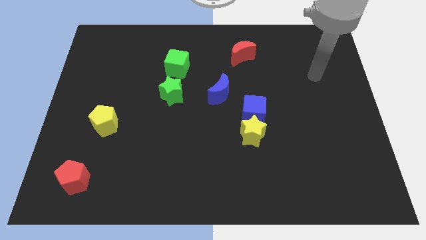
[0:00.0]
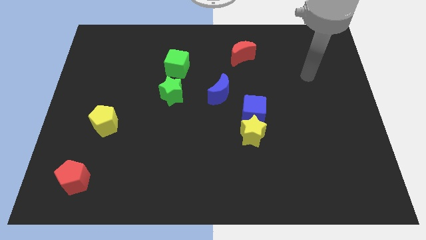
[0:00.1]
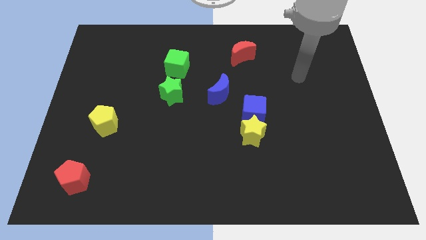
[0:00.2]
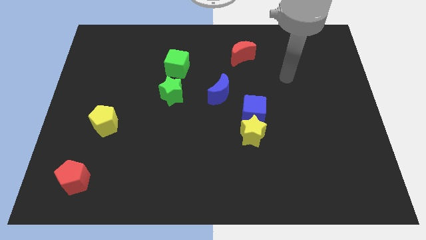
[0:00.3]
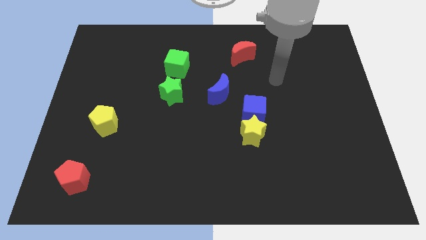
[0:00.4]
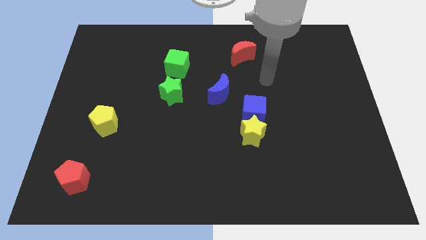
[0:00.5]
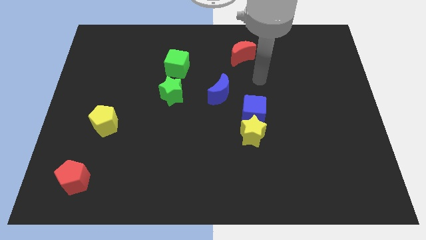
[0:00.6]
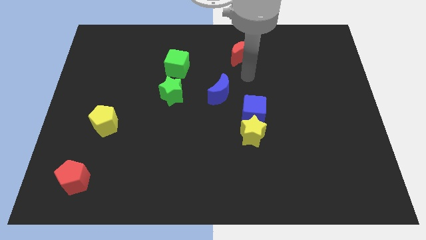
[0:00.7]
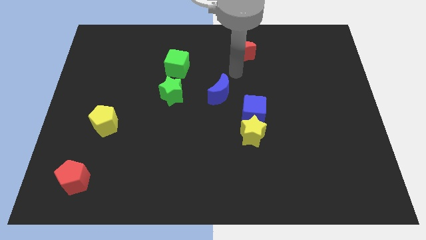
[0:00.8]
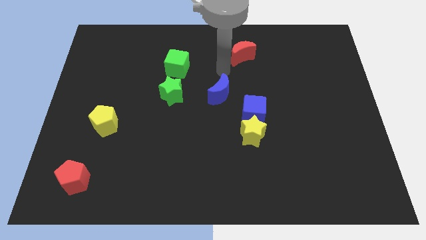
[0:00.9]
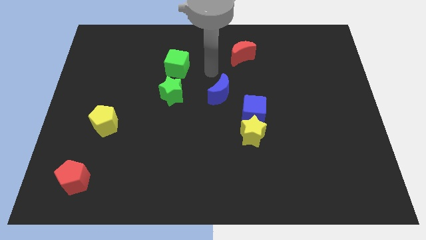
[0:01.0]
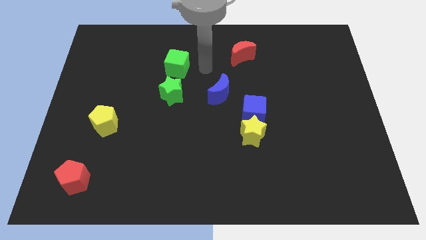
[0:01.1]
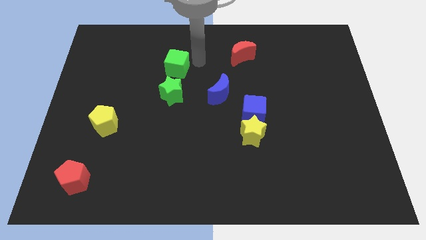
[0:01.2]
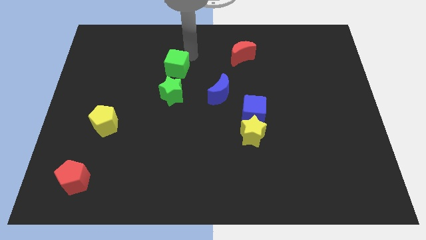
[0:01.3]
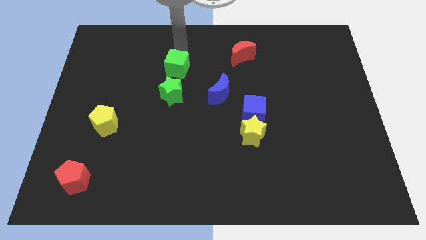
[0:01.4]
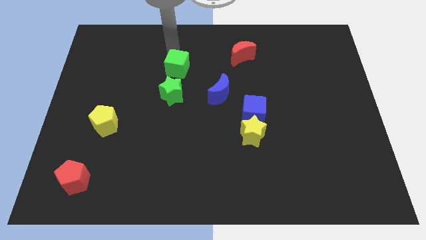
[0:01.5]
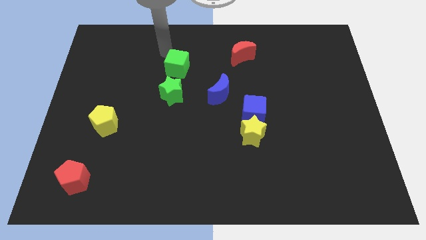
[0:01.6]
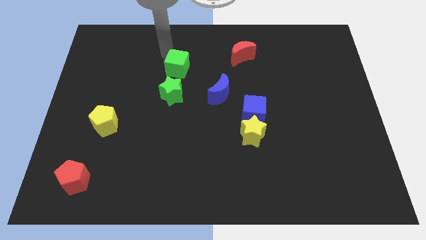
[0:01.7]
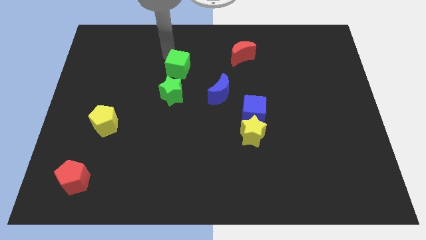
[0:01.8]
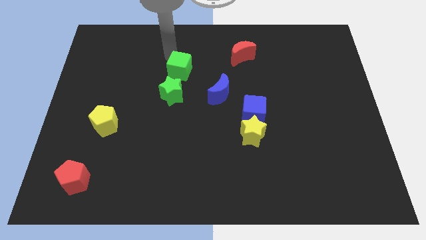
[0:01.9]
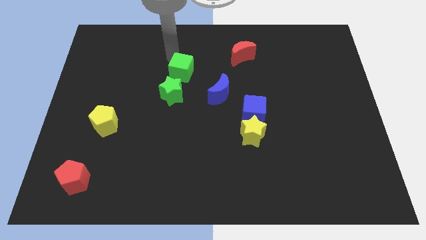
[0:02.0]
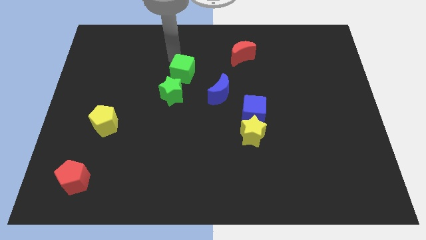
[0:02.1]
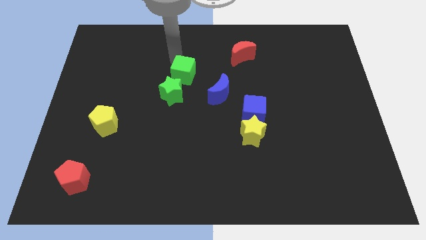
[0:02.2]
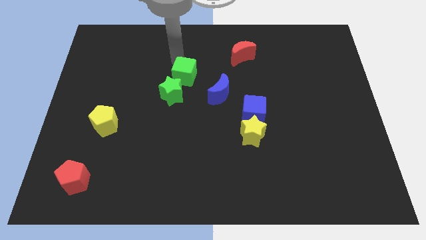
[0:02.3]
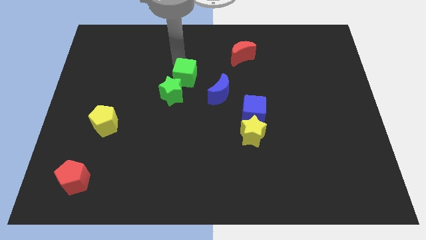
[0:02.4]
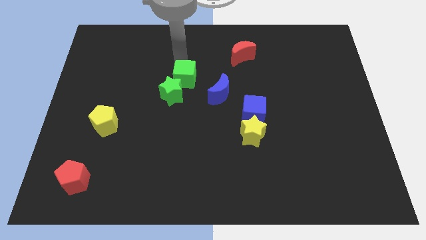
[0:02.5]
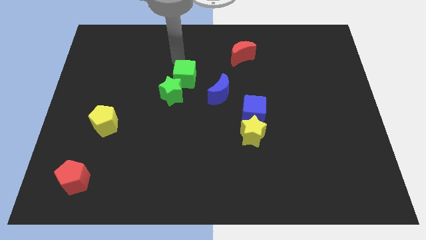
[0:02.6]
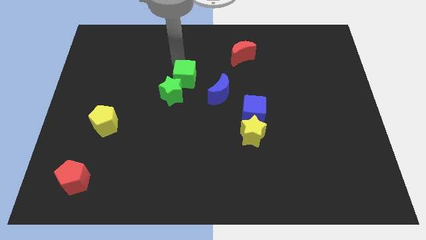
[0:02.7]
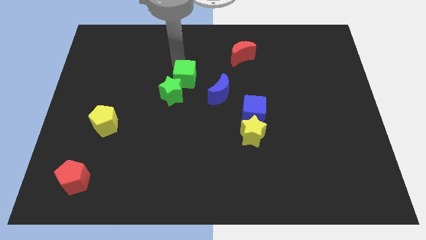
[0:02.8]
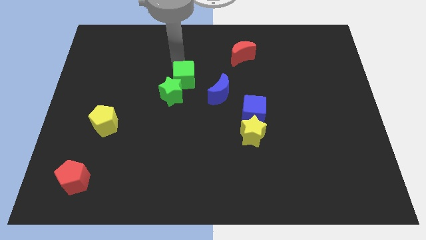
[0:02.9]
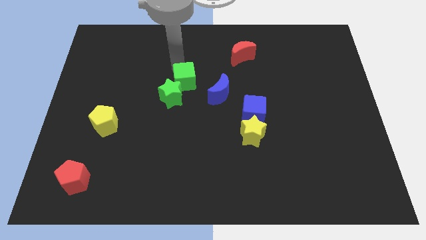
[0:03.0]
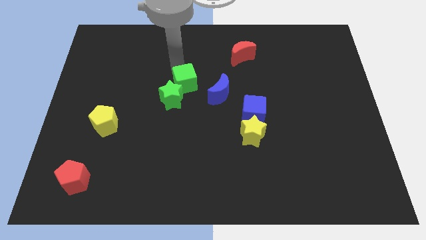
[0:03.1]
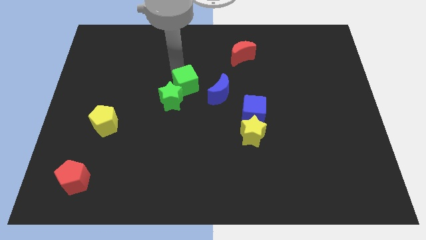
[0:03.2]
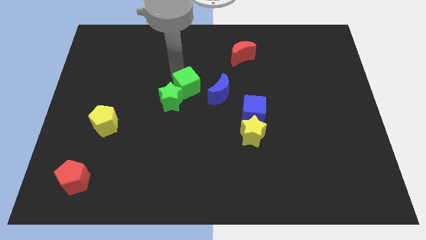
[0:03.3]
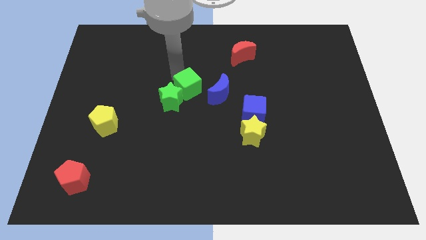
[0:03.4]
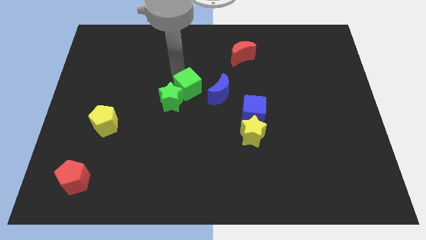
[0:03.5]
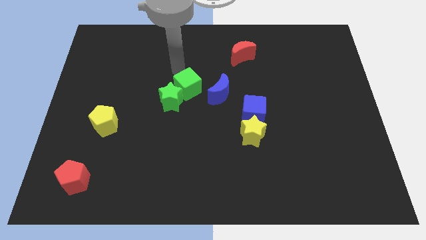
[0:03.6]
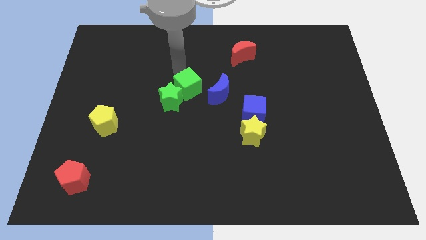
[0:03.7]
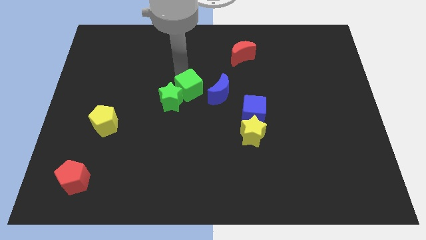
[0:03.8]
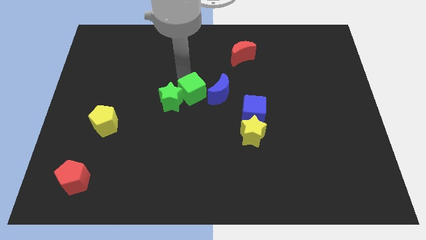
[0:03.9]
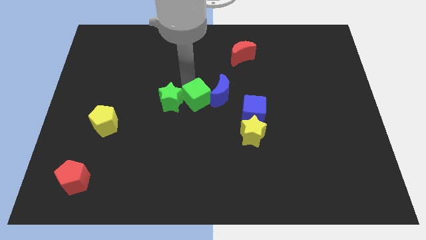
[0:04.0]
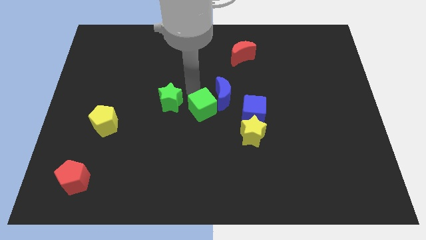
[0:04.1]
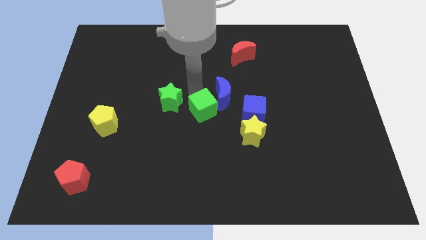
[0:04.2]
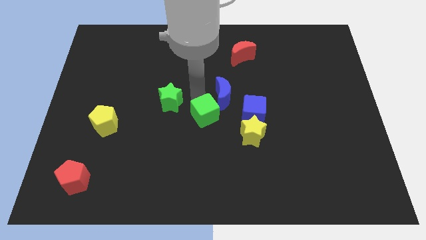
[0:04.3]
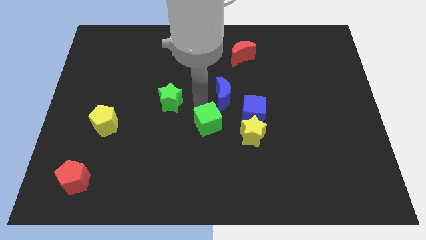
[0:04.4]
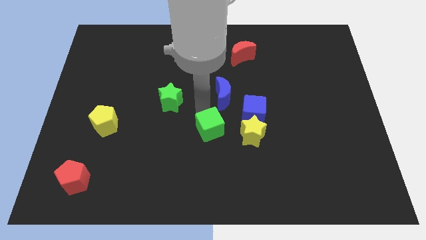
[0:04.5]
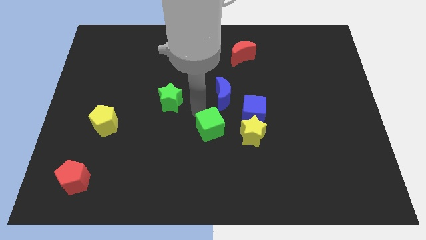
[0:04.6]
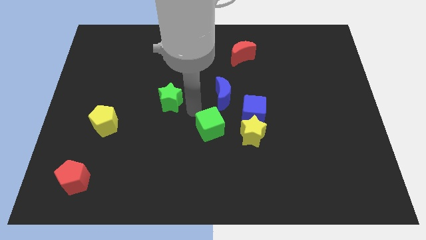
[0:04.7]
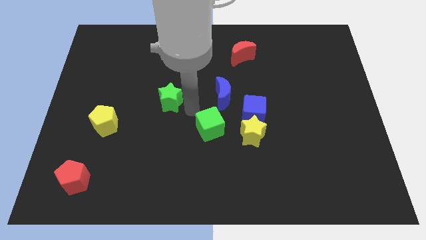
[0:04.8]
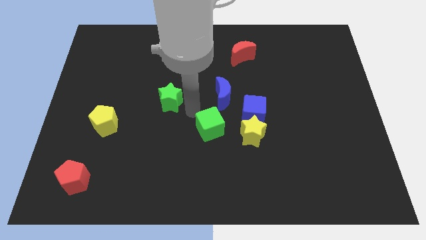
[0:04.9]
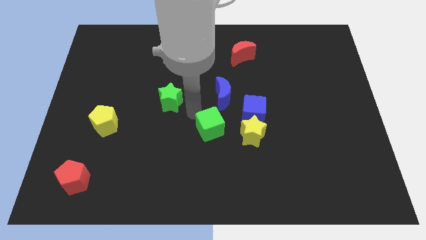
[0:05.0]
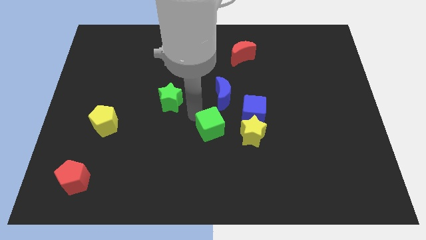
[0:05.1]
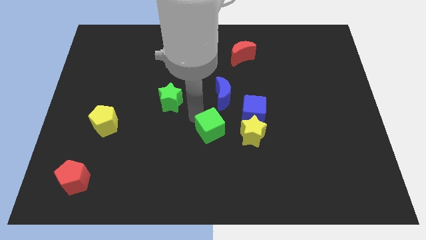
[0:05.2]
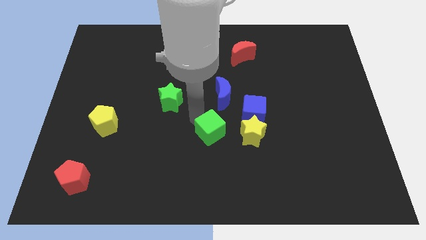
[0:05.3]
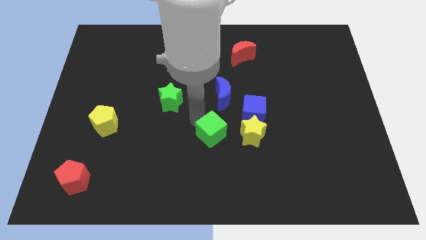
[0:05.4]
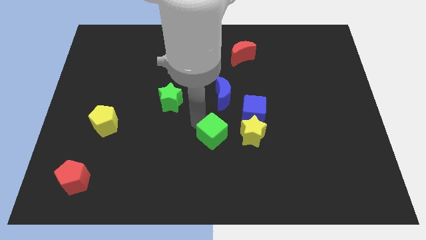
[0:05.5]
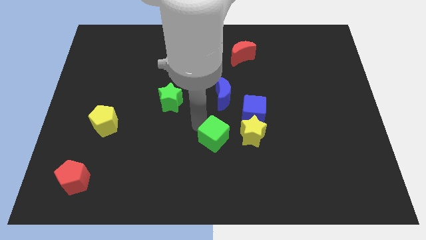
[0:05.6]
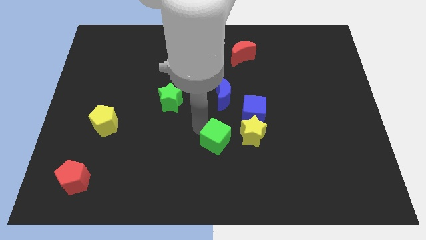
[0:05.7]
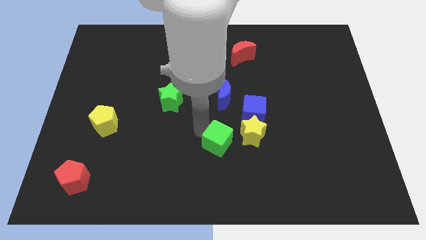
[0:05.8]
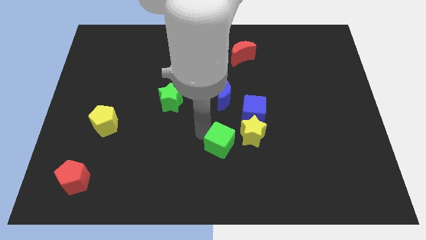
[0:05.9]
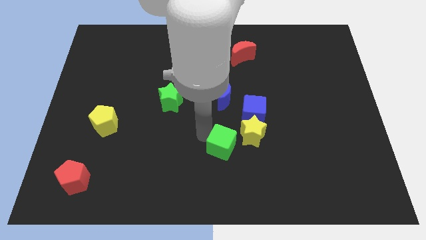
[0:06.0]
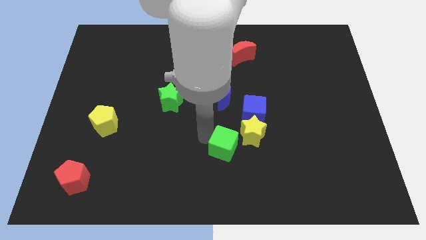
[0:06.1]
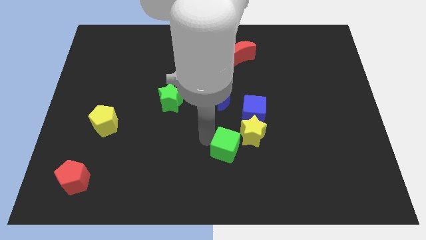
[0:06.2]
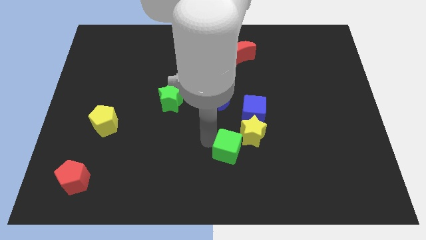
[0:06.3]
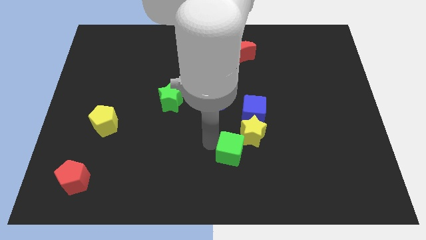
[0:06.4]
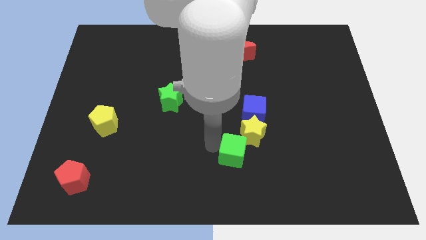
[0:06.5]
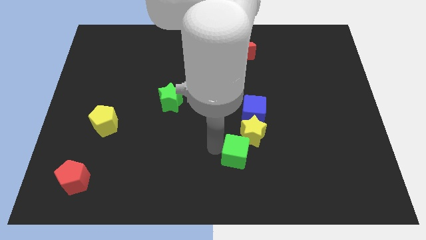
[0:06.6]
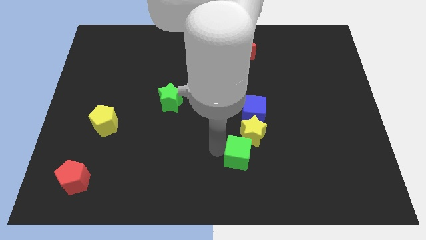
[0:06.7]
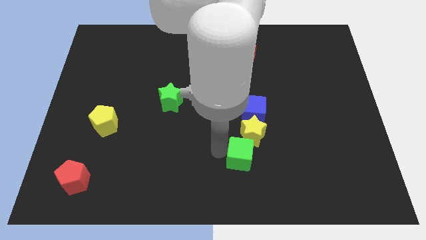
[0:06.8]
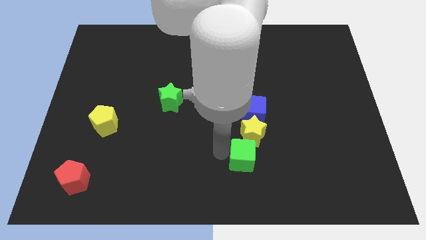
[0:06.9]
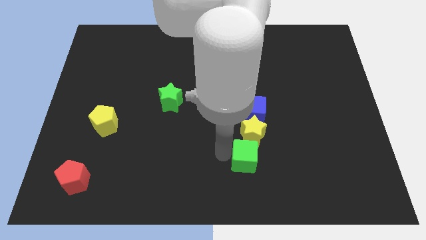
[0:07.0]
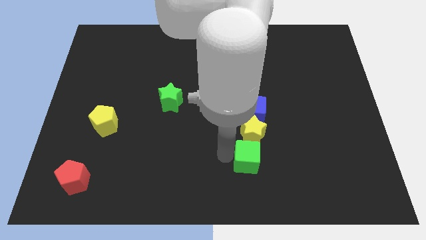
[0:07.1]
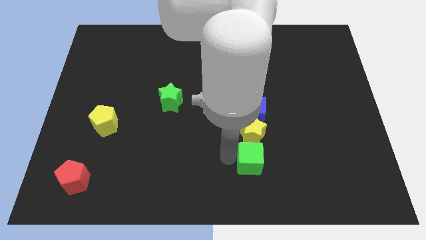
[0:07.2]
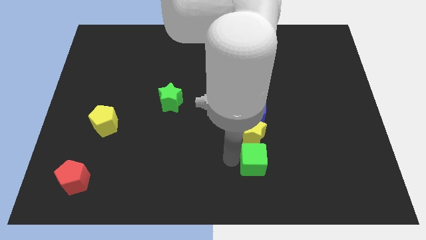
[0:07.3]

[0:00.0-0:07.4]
slide the green cube to the bottom right of the yellow star

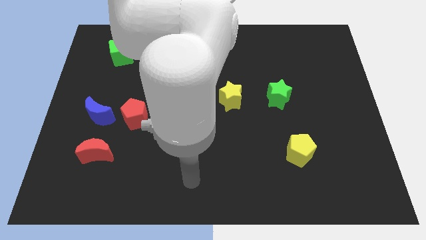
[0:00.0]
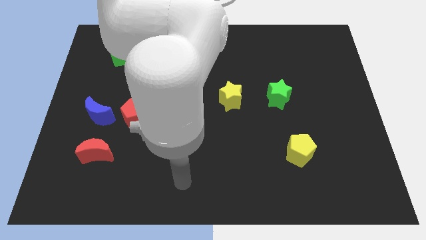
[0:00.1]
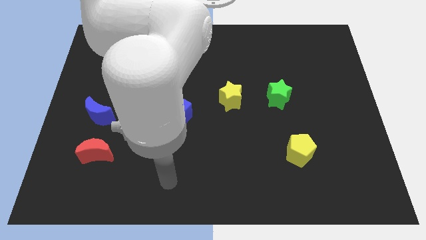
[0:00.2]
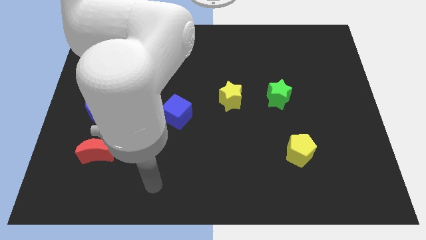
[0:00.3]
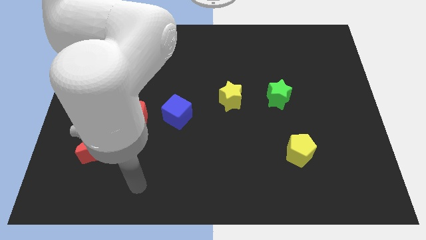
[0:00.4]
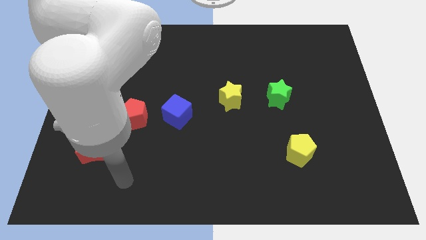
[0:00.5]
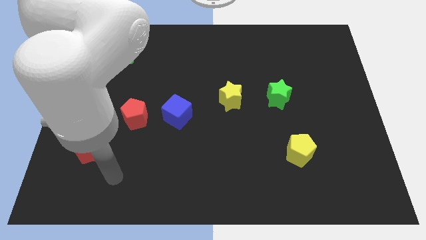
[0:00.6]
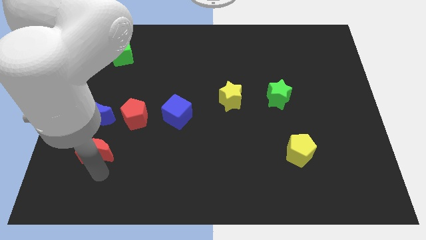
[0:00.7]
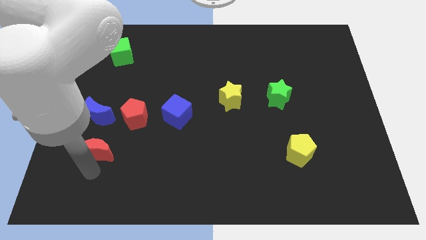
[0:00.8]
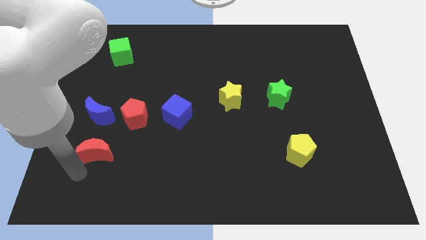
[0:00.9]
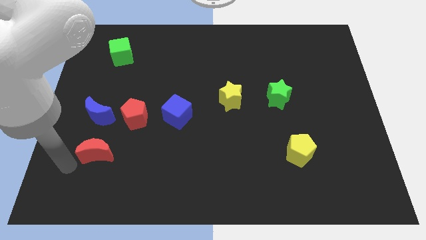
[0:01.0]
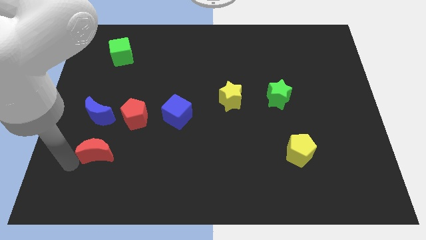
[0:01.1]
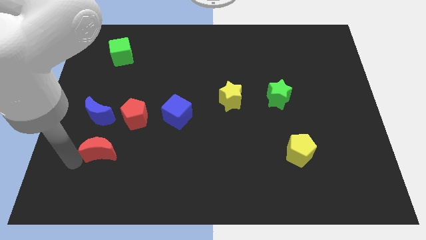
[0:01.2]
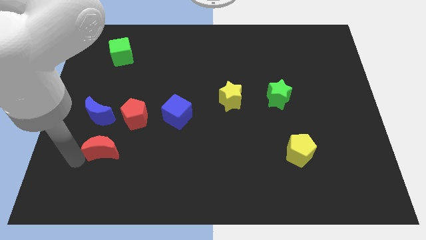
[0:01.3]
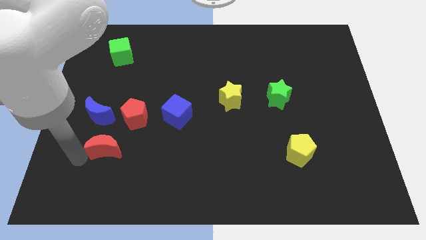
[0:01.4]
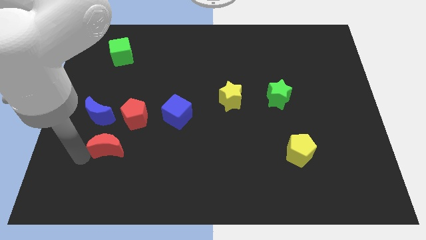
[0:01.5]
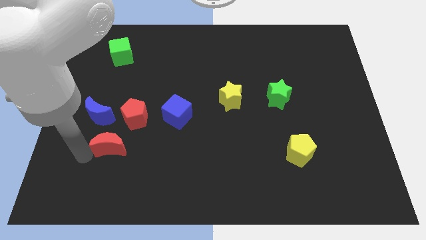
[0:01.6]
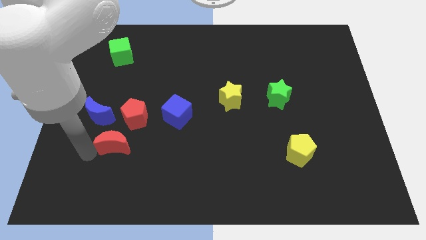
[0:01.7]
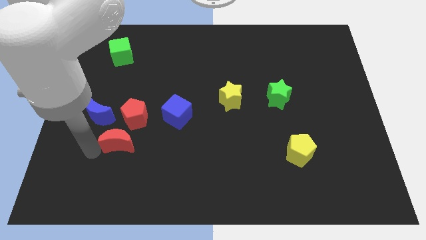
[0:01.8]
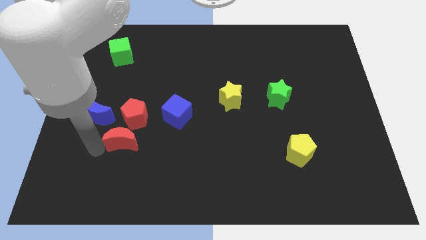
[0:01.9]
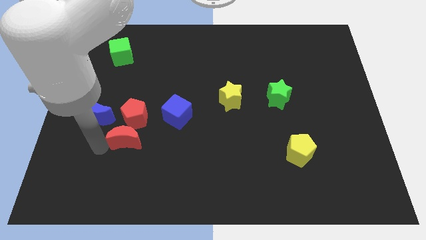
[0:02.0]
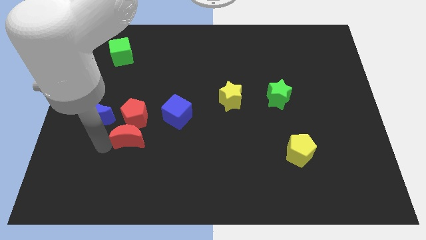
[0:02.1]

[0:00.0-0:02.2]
push the red moon to the bottom right side of the red pentagon
